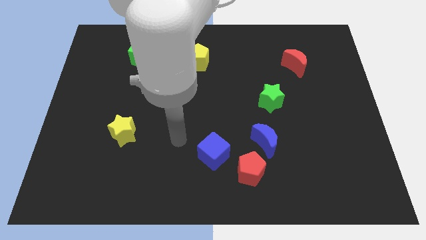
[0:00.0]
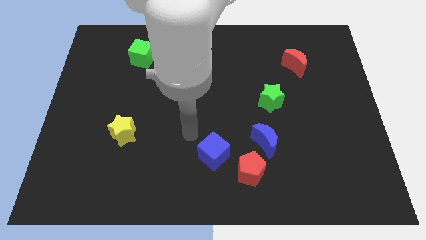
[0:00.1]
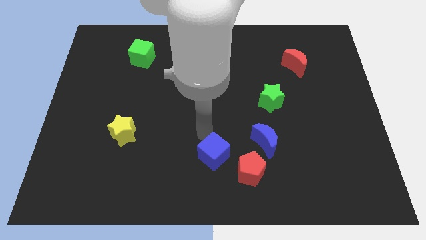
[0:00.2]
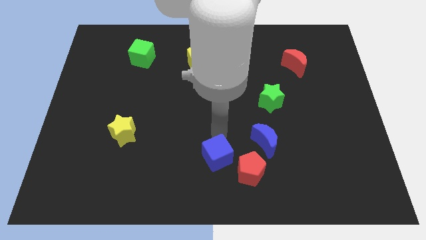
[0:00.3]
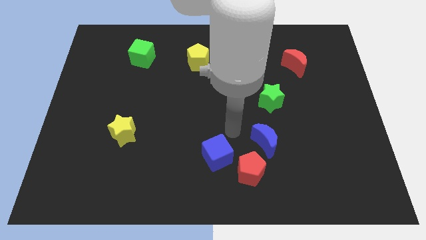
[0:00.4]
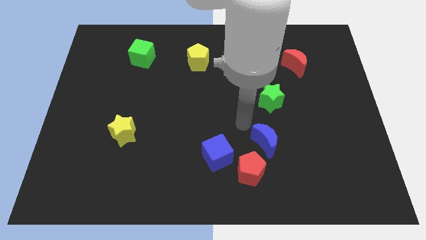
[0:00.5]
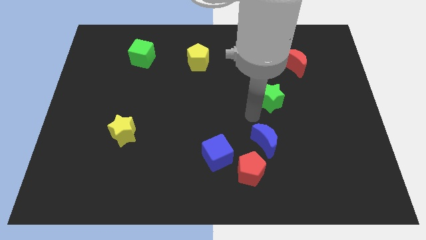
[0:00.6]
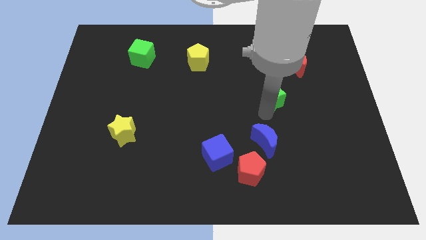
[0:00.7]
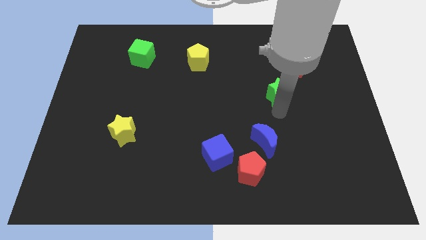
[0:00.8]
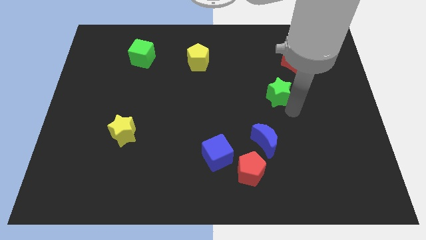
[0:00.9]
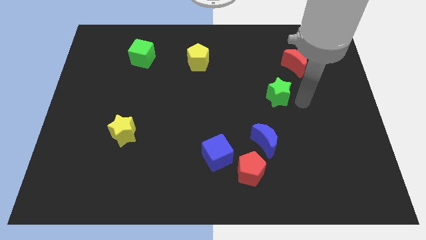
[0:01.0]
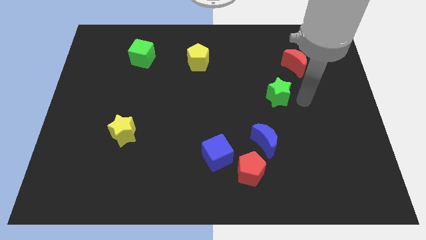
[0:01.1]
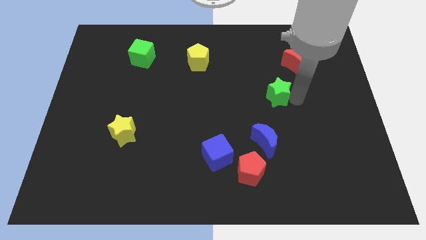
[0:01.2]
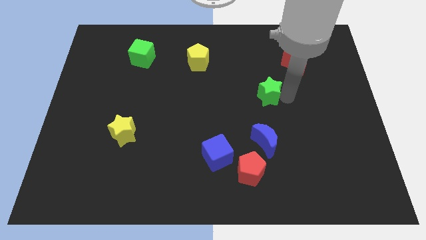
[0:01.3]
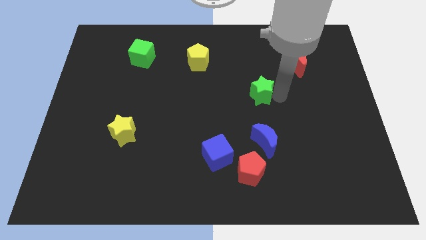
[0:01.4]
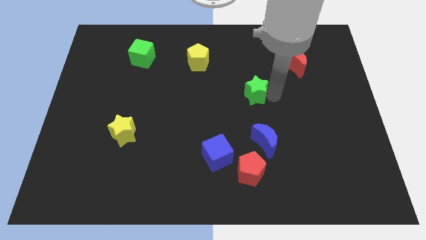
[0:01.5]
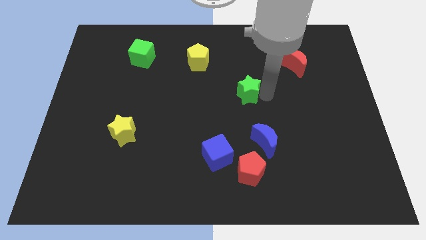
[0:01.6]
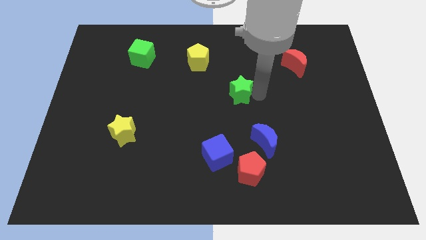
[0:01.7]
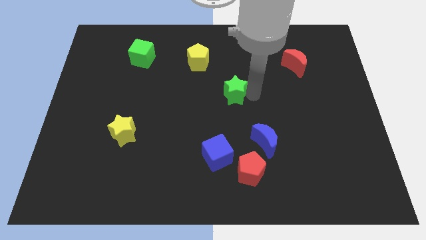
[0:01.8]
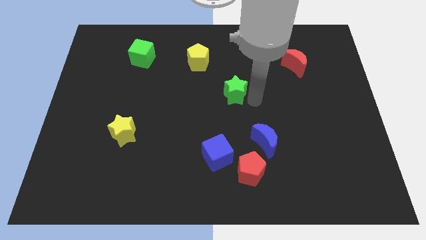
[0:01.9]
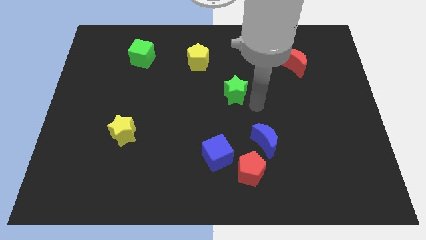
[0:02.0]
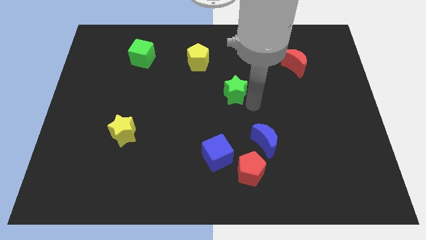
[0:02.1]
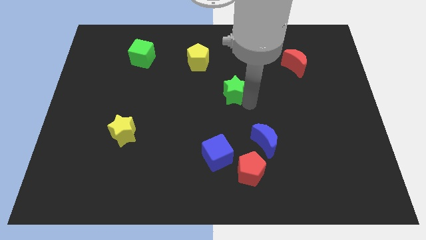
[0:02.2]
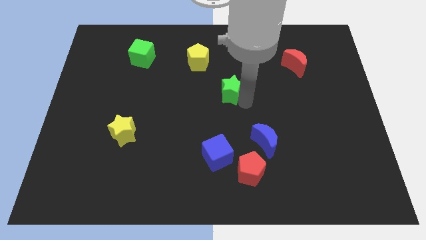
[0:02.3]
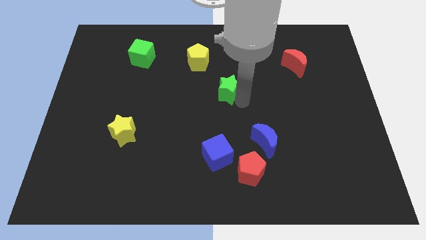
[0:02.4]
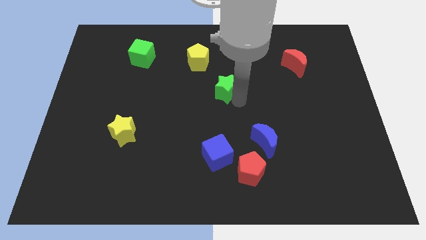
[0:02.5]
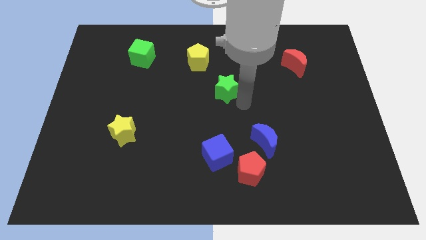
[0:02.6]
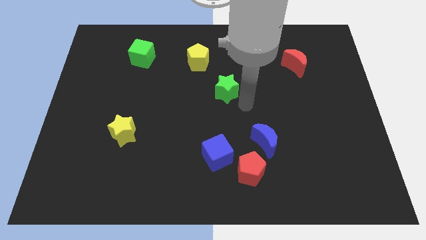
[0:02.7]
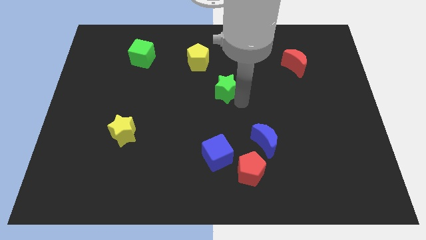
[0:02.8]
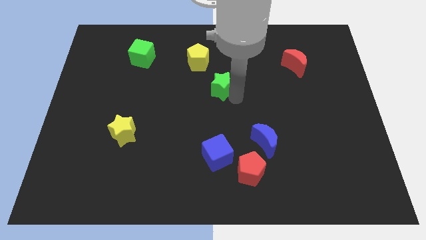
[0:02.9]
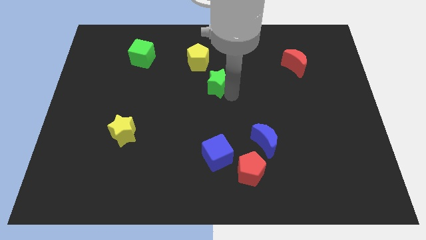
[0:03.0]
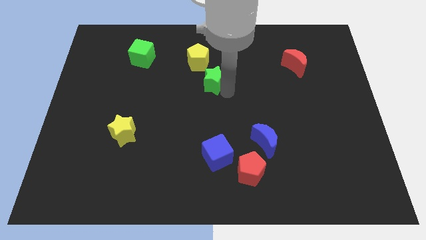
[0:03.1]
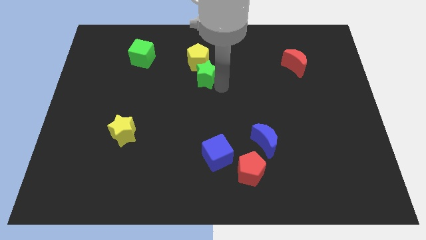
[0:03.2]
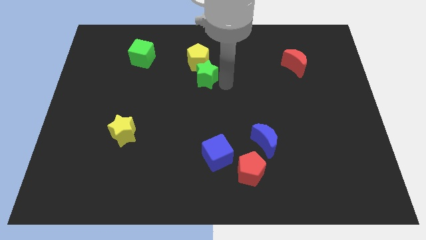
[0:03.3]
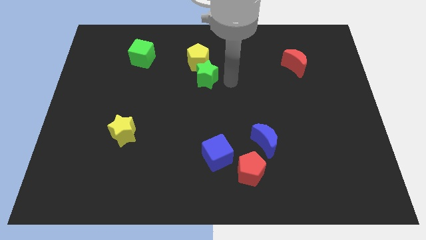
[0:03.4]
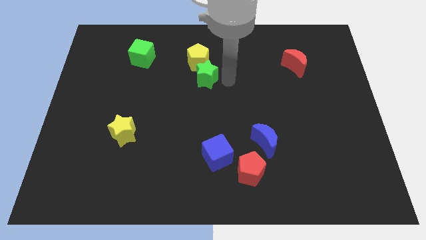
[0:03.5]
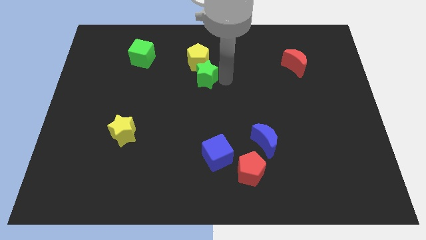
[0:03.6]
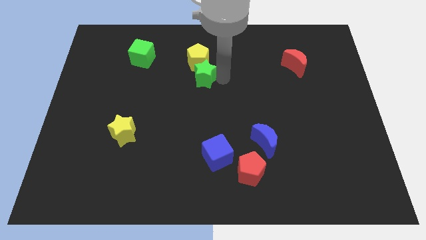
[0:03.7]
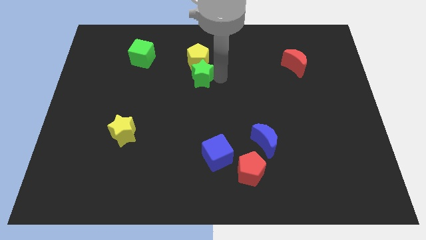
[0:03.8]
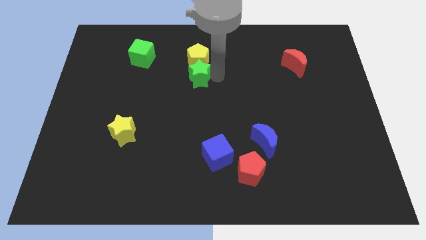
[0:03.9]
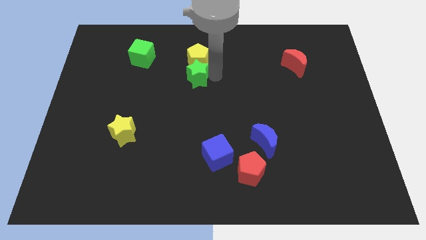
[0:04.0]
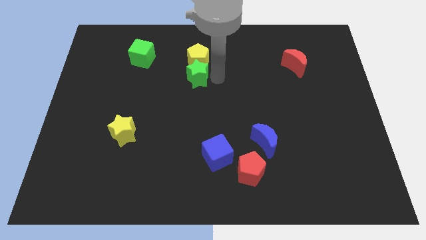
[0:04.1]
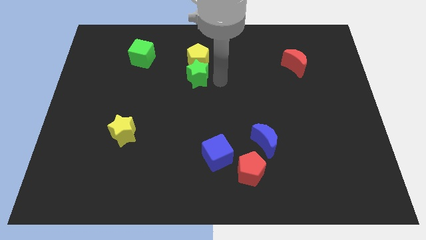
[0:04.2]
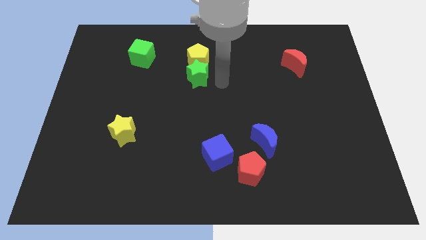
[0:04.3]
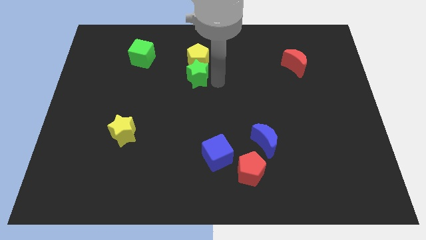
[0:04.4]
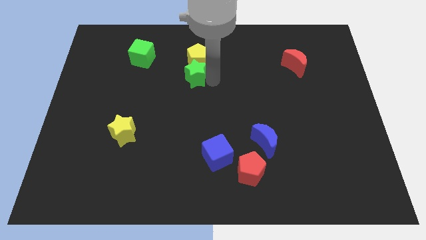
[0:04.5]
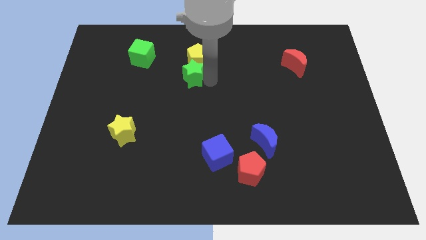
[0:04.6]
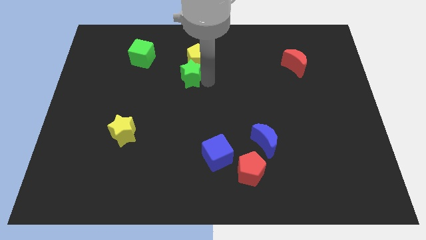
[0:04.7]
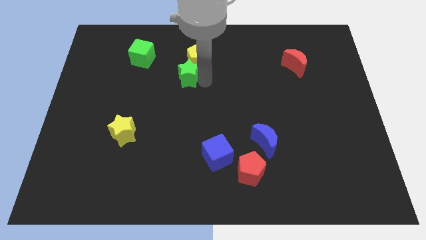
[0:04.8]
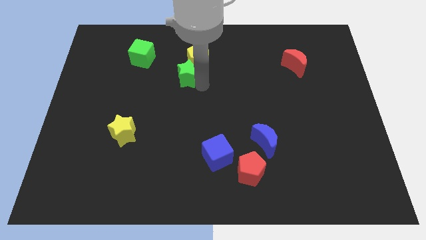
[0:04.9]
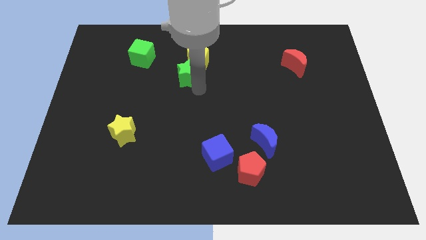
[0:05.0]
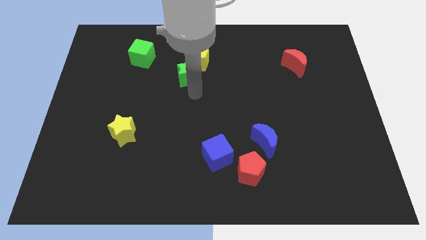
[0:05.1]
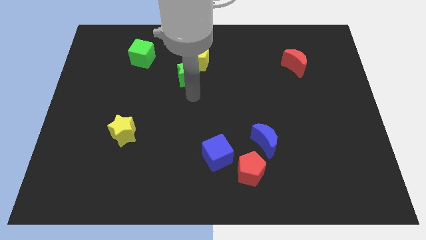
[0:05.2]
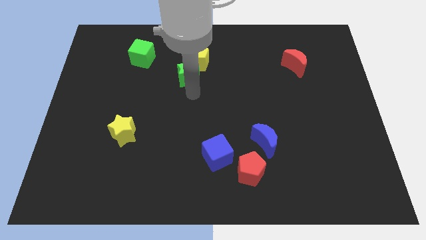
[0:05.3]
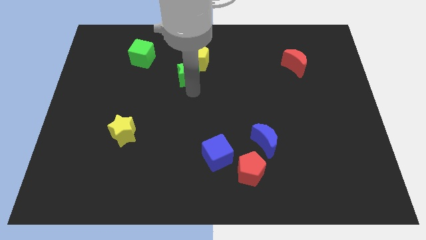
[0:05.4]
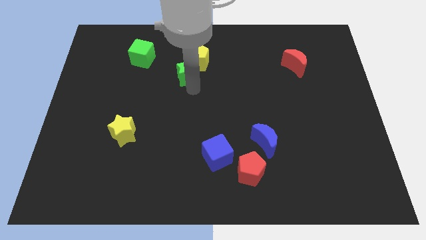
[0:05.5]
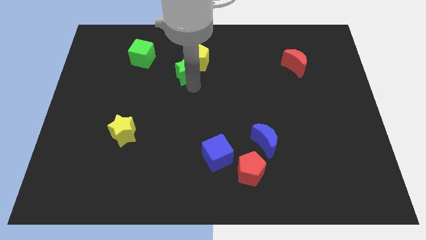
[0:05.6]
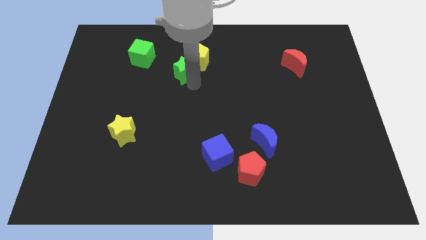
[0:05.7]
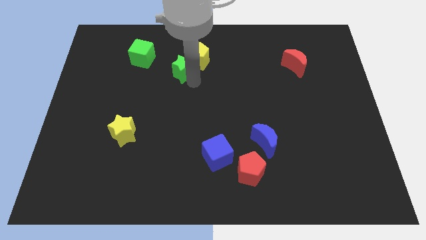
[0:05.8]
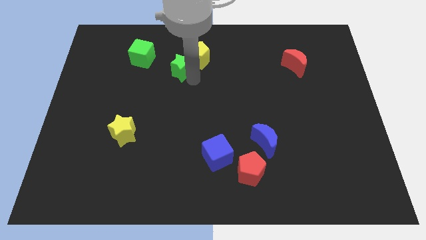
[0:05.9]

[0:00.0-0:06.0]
move the green star just right of the green cube

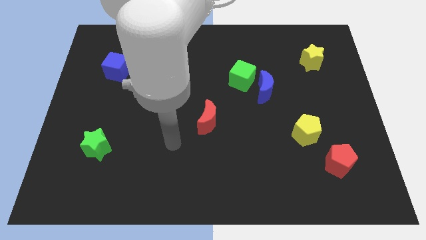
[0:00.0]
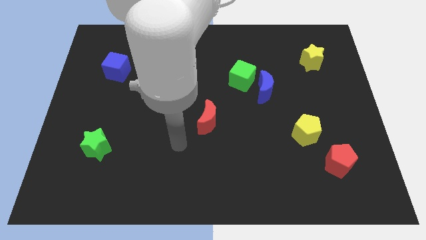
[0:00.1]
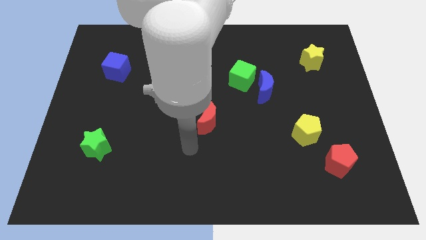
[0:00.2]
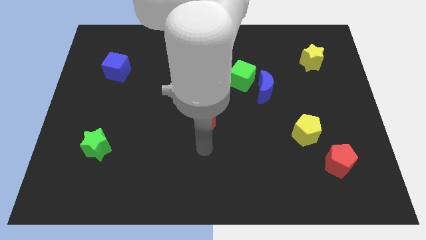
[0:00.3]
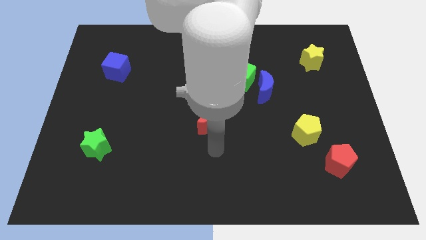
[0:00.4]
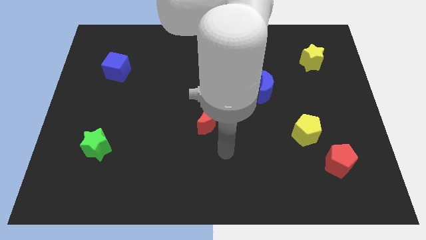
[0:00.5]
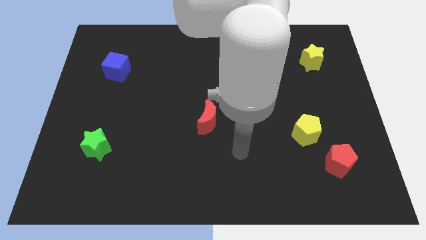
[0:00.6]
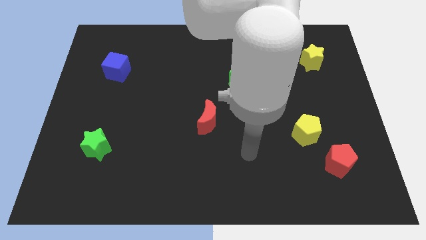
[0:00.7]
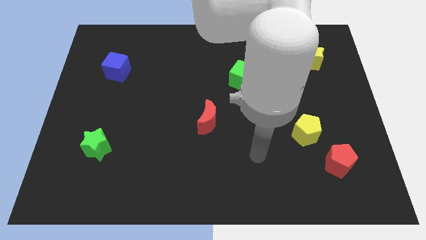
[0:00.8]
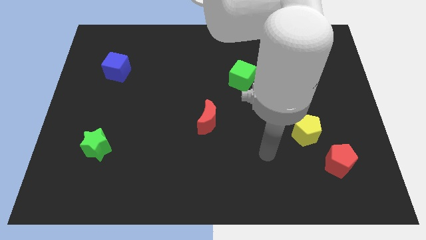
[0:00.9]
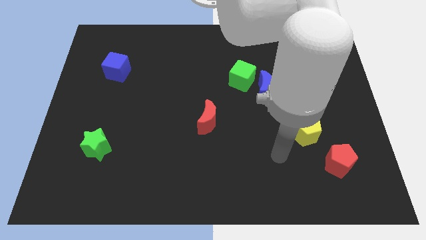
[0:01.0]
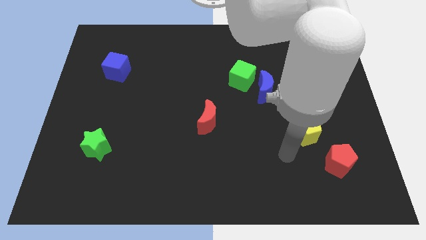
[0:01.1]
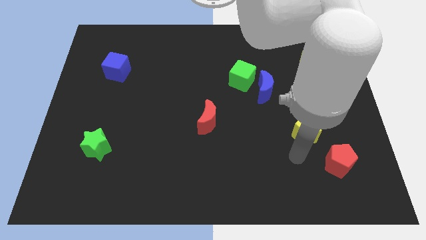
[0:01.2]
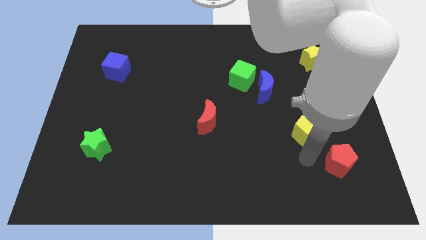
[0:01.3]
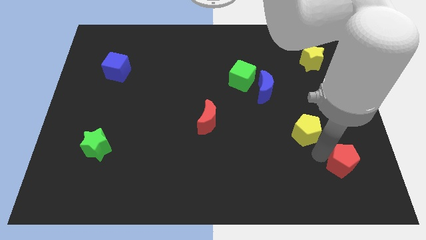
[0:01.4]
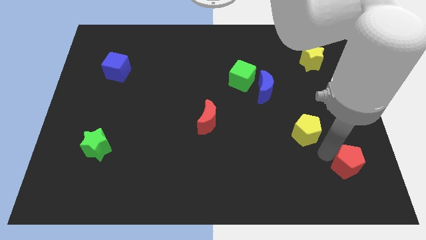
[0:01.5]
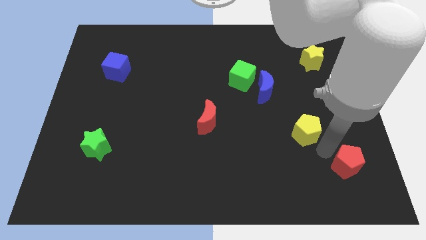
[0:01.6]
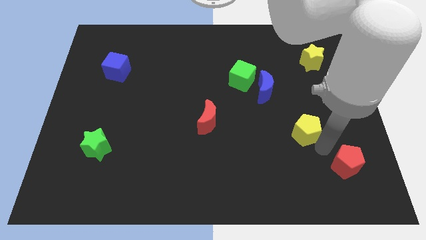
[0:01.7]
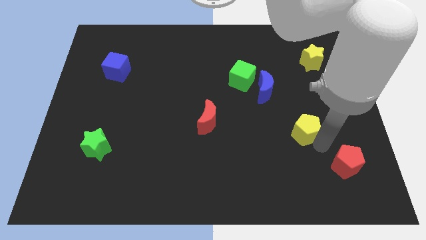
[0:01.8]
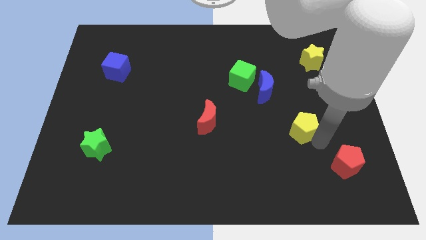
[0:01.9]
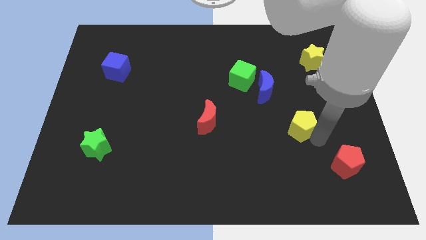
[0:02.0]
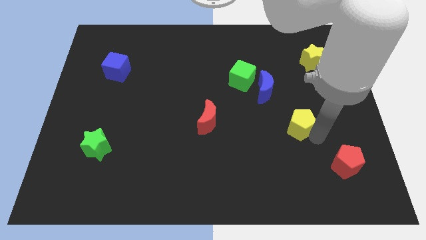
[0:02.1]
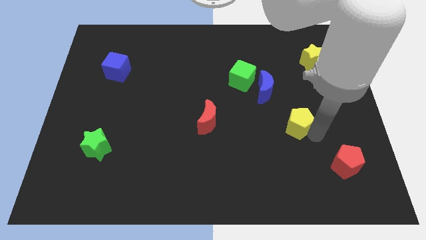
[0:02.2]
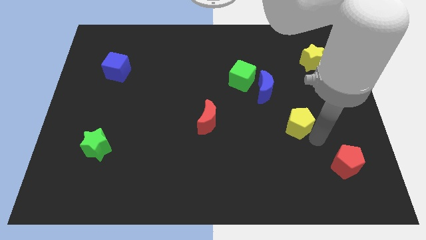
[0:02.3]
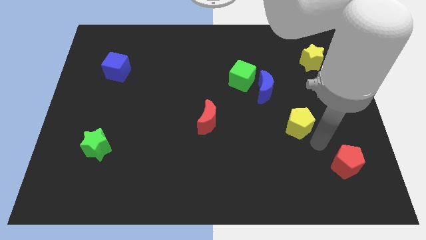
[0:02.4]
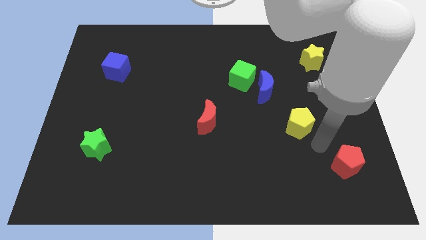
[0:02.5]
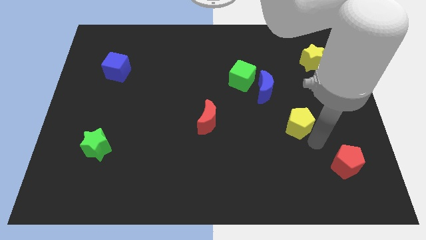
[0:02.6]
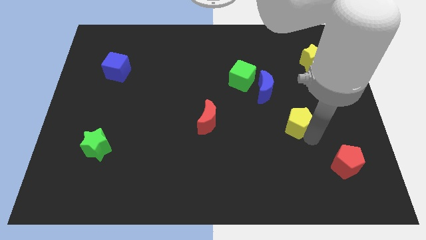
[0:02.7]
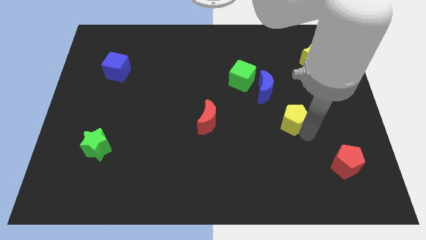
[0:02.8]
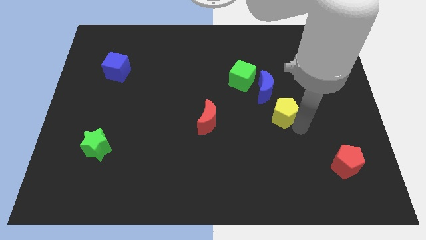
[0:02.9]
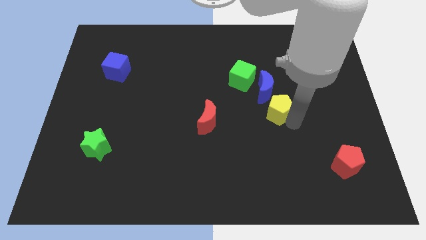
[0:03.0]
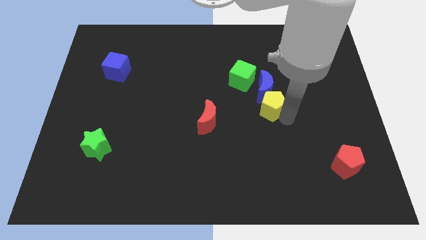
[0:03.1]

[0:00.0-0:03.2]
put the yellow pentagon to the bottom right side of the green cube
